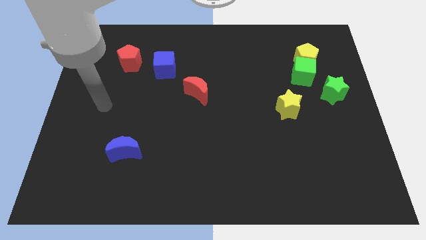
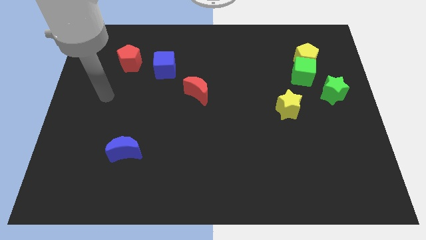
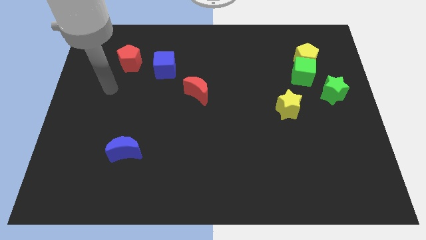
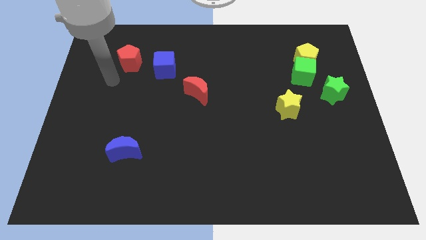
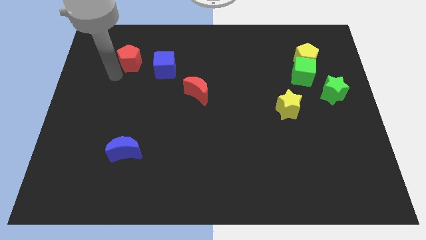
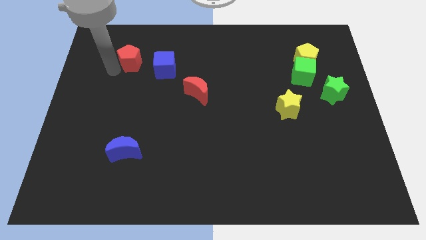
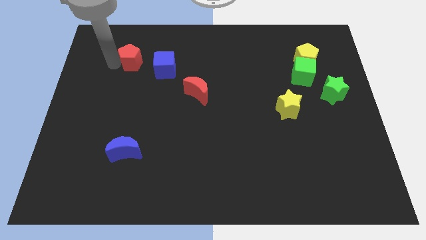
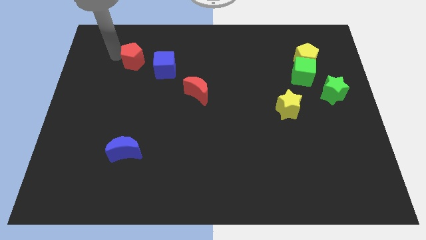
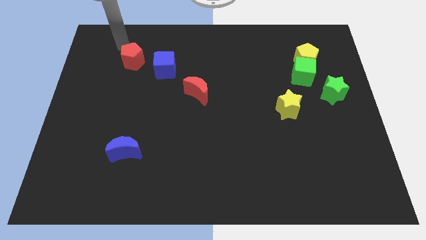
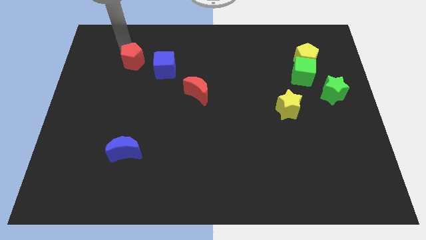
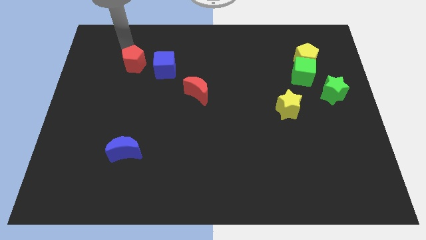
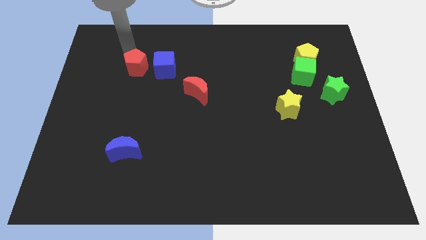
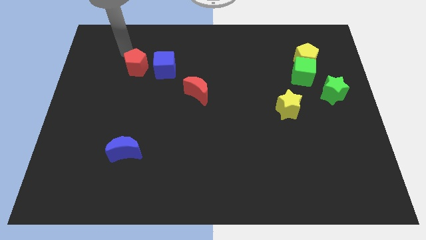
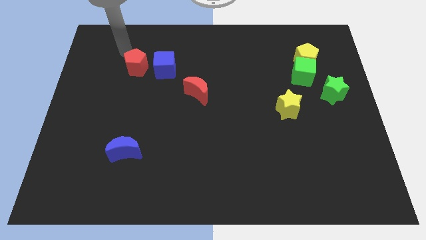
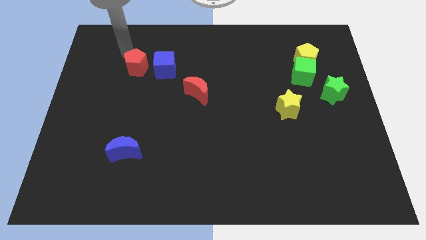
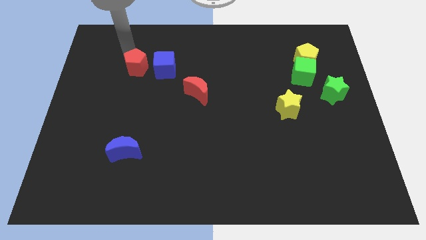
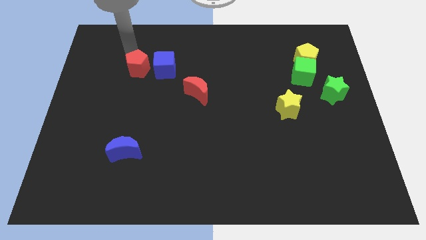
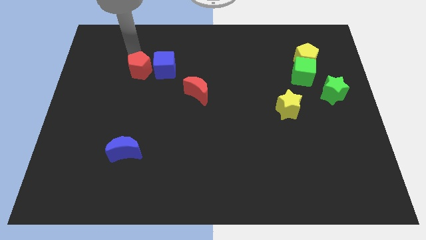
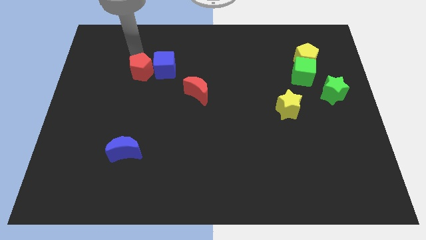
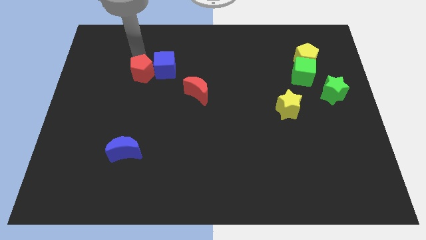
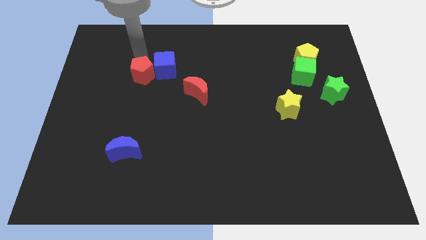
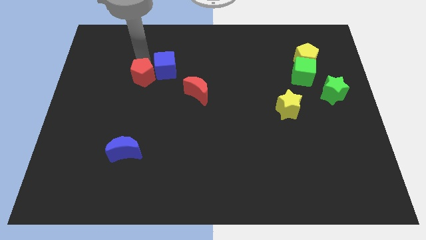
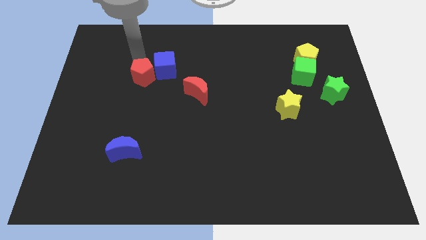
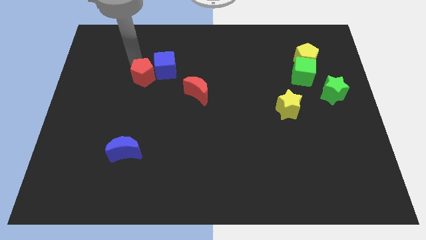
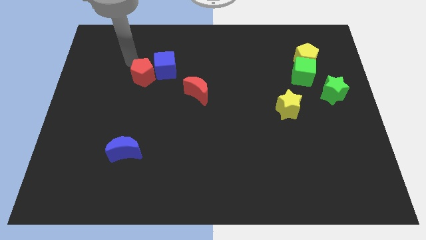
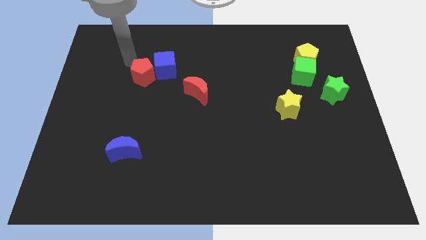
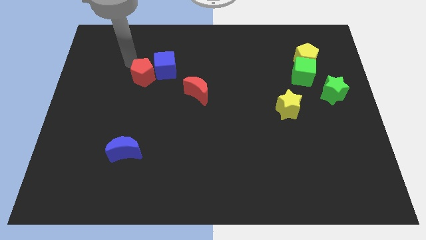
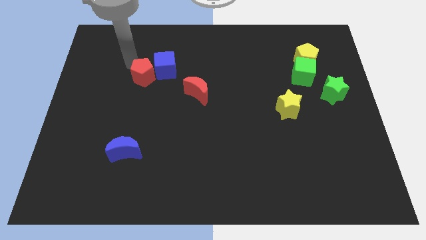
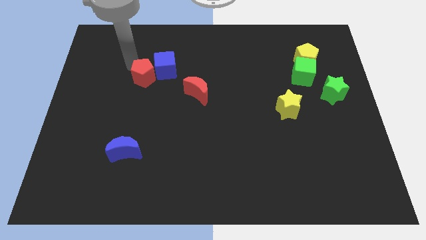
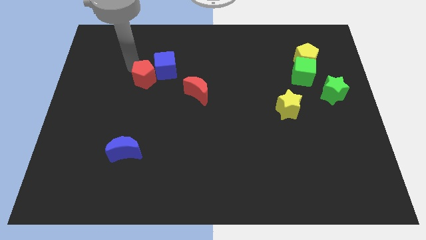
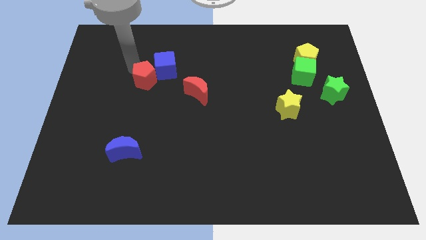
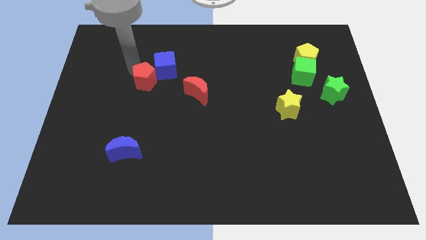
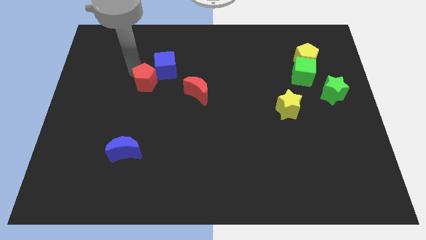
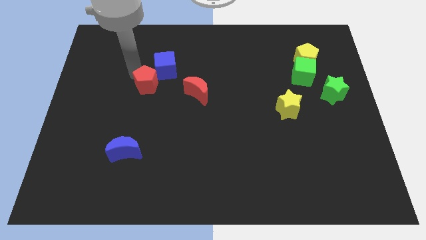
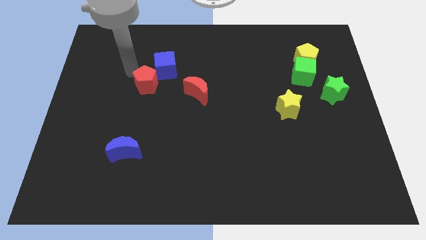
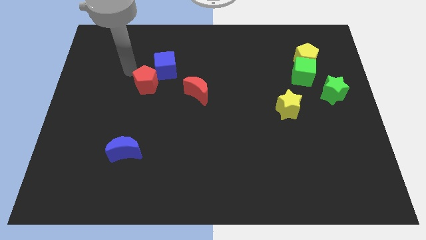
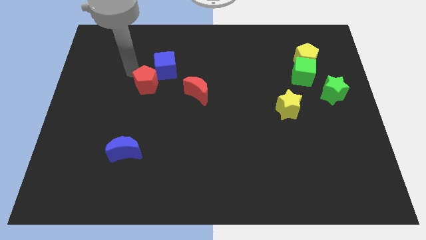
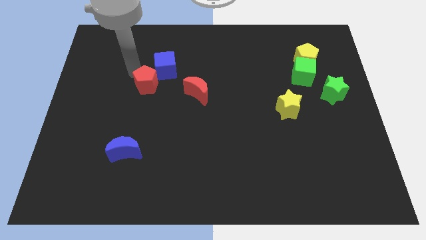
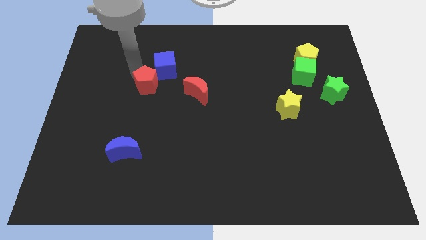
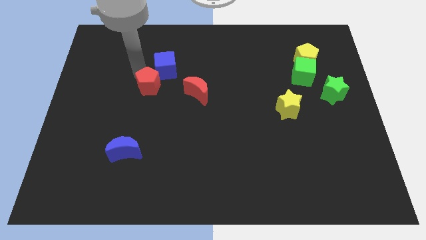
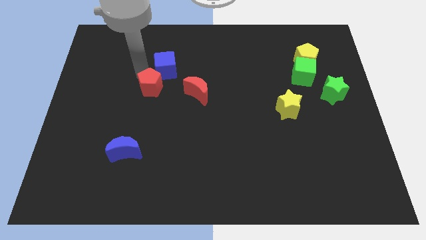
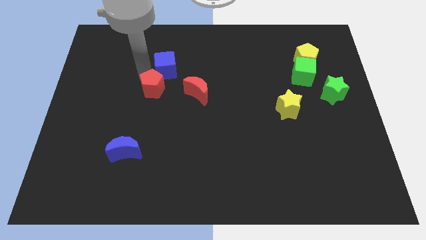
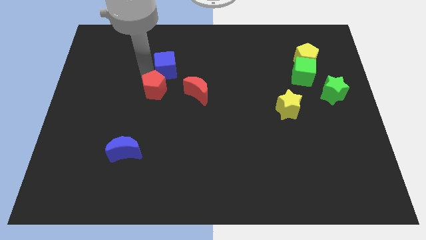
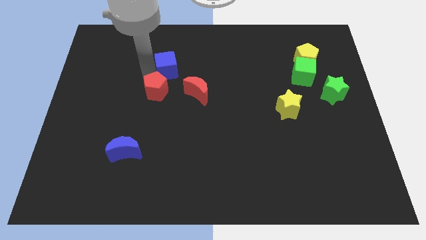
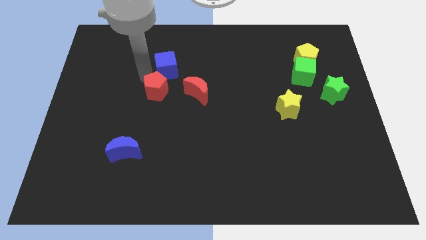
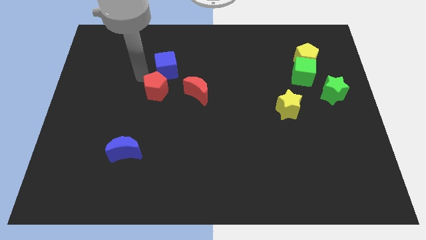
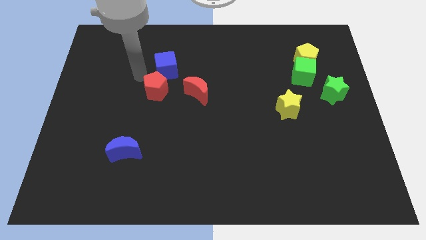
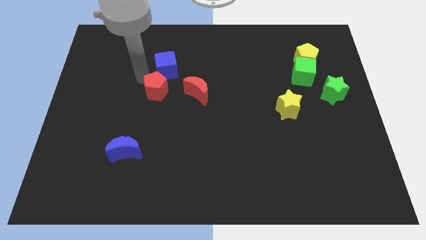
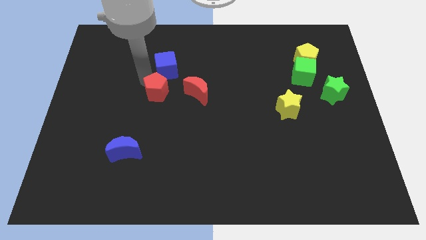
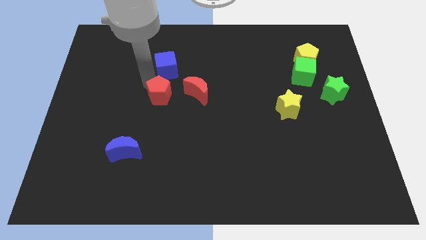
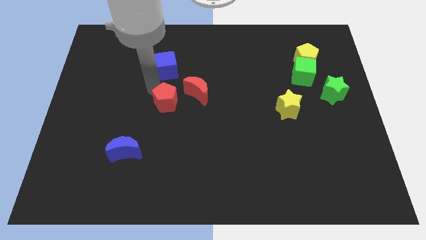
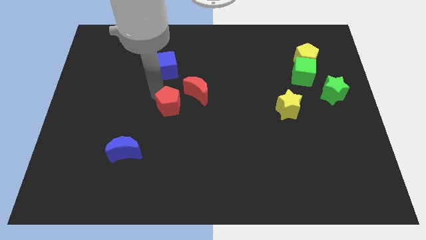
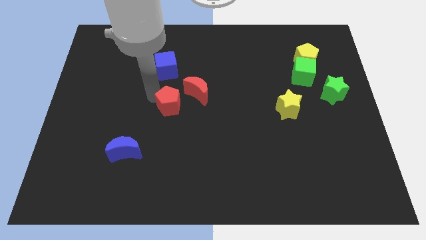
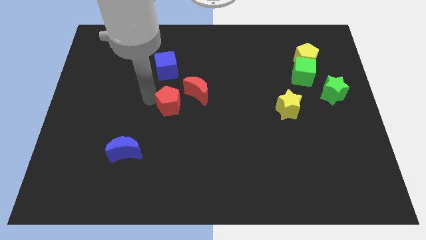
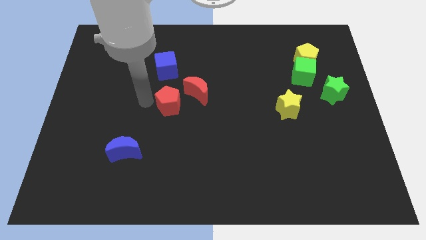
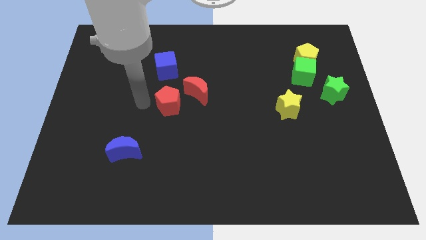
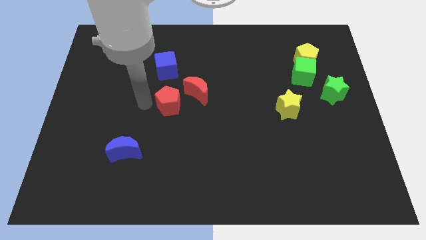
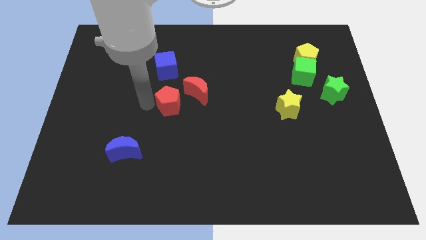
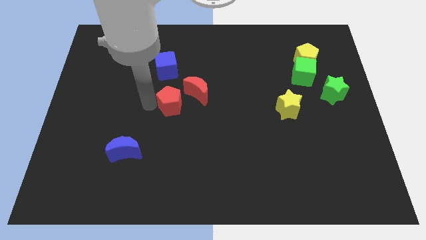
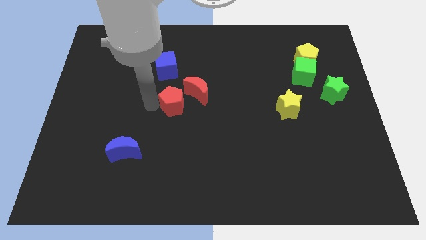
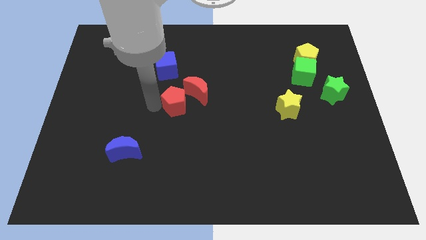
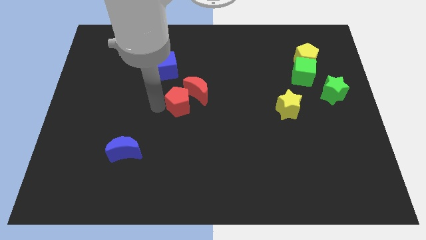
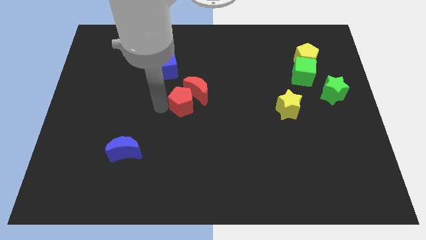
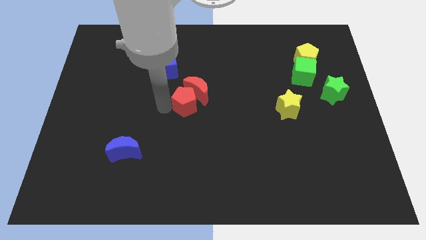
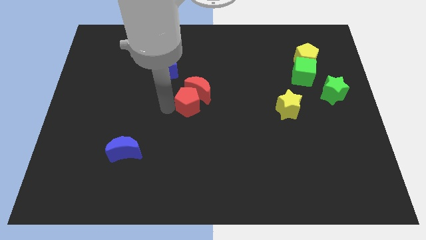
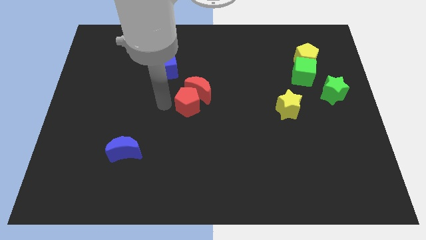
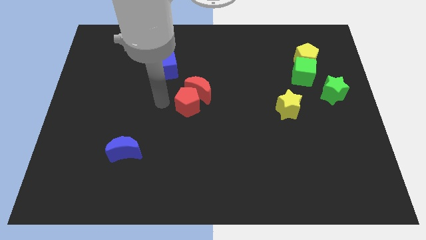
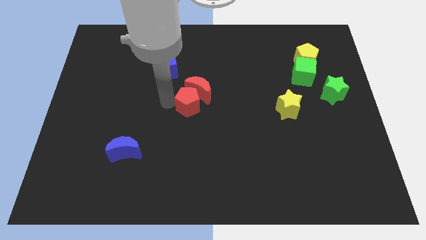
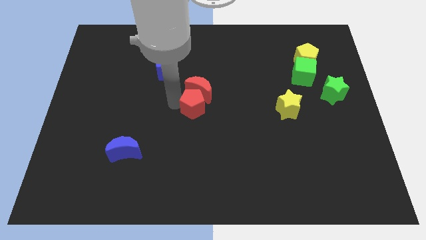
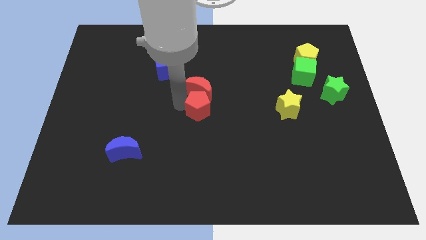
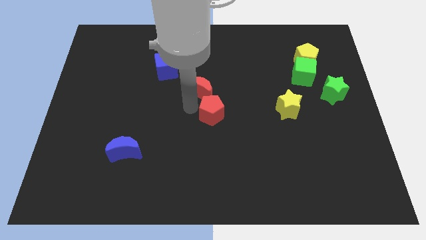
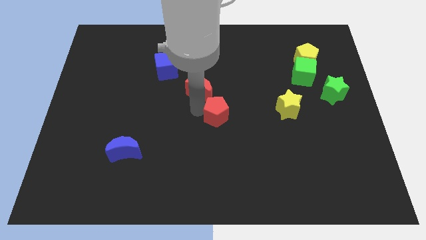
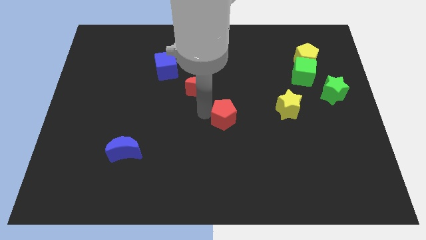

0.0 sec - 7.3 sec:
slide the red pentagon to the left of the yellow star
